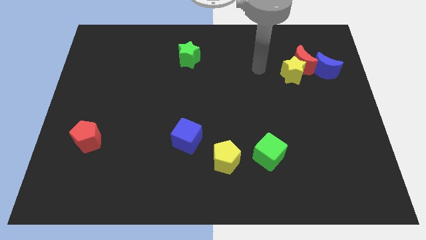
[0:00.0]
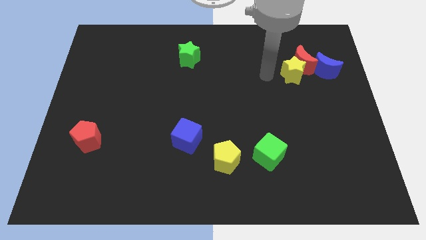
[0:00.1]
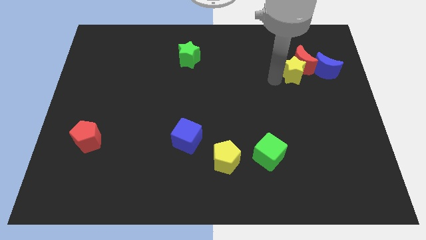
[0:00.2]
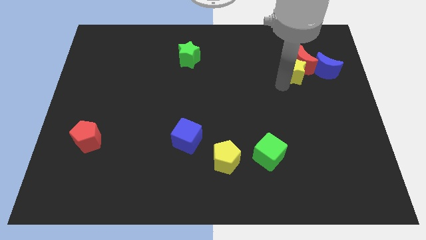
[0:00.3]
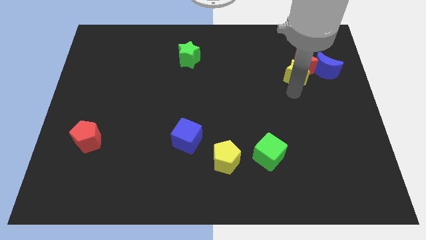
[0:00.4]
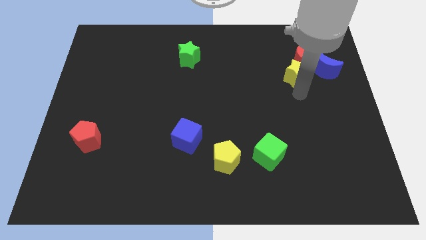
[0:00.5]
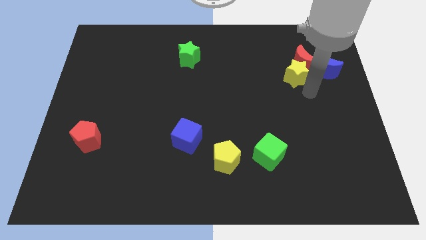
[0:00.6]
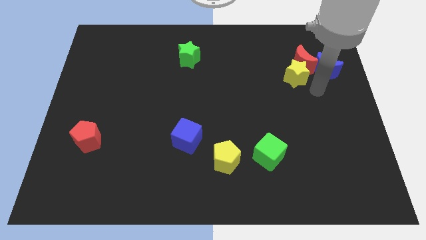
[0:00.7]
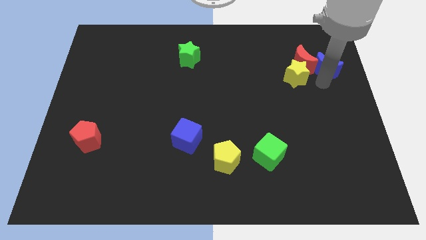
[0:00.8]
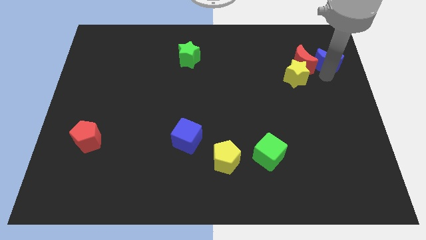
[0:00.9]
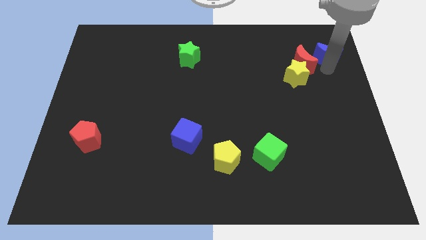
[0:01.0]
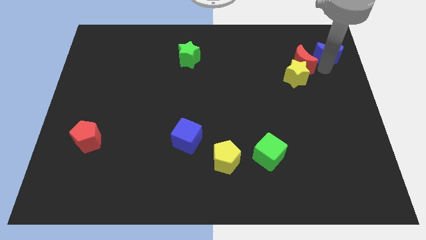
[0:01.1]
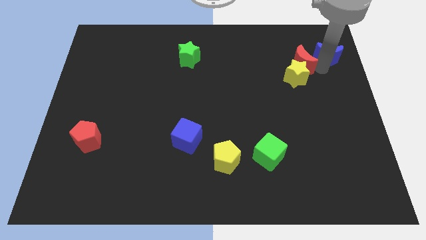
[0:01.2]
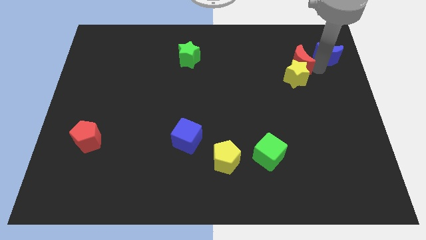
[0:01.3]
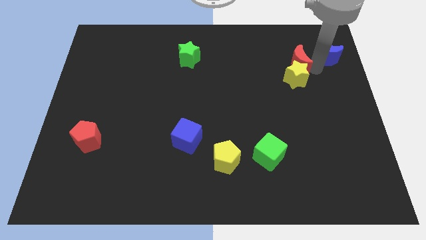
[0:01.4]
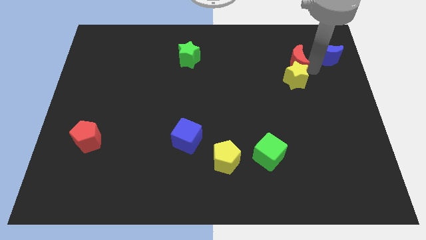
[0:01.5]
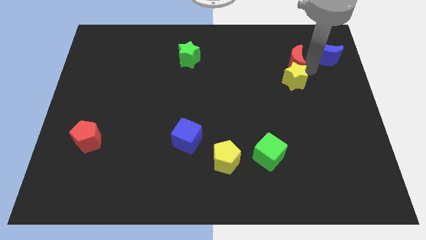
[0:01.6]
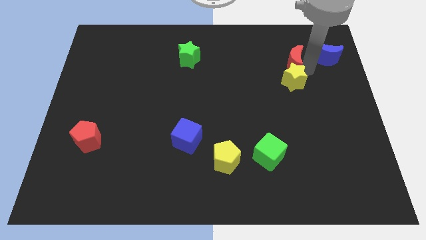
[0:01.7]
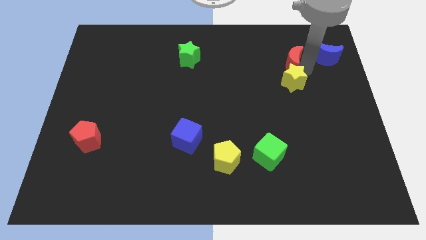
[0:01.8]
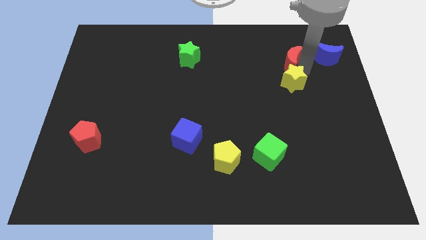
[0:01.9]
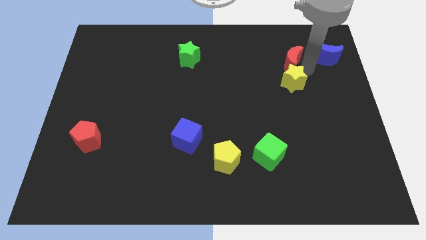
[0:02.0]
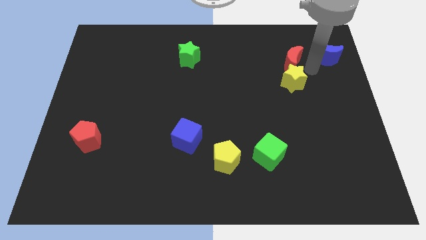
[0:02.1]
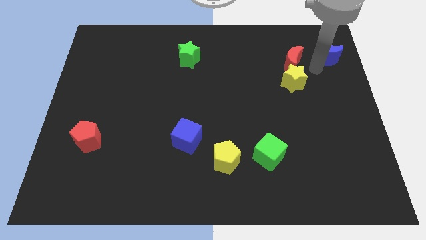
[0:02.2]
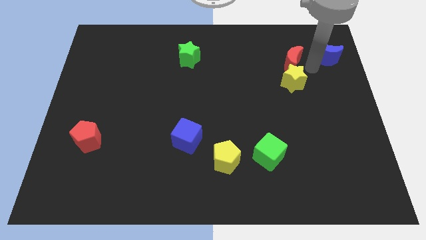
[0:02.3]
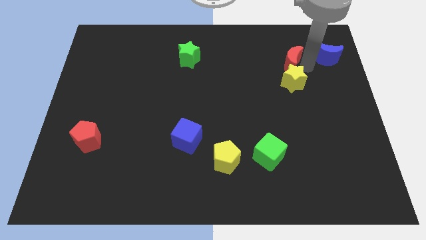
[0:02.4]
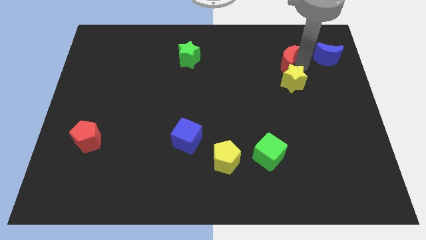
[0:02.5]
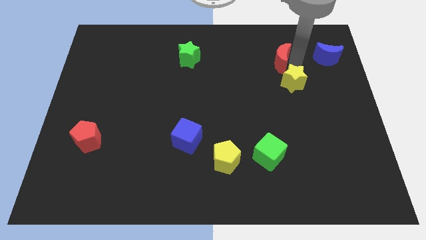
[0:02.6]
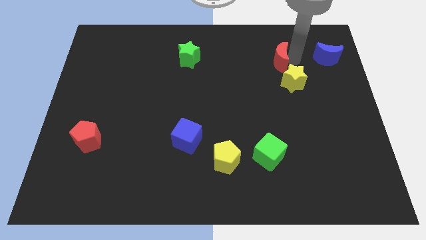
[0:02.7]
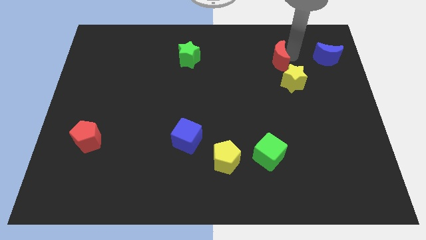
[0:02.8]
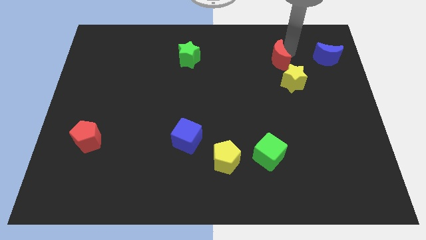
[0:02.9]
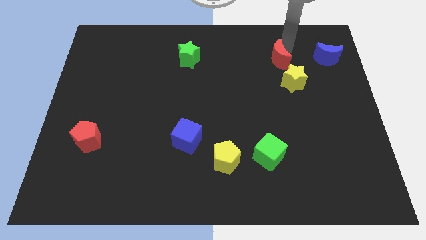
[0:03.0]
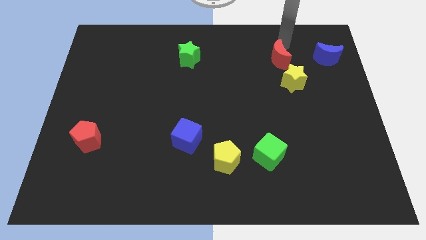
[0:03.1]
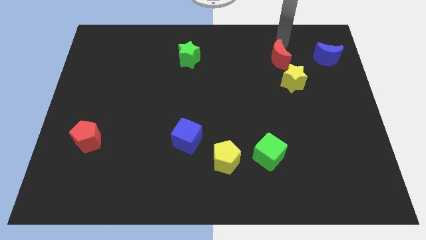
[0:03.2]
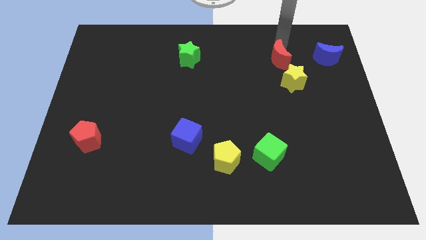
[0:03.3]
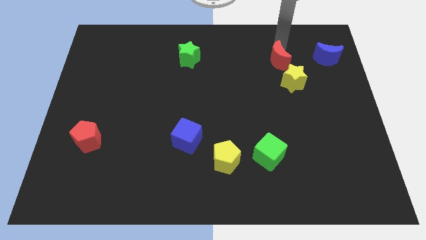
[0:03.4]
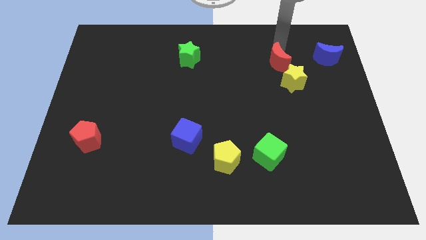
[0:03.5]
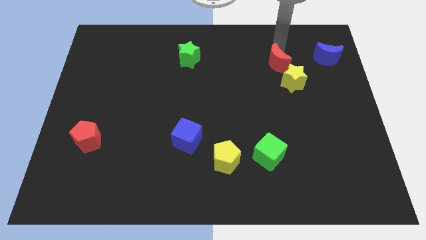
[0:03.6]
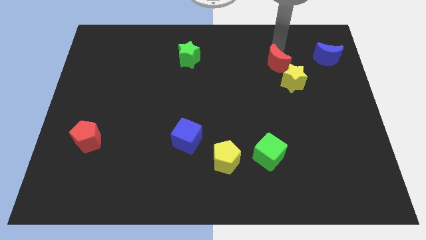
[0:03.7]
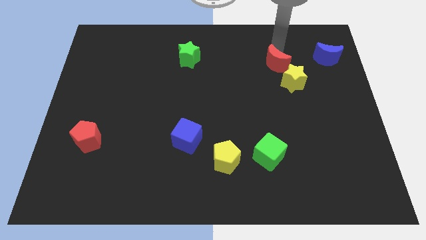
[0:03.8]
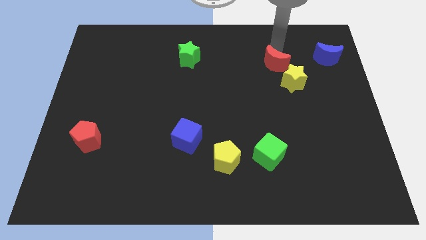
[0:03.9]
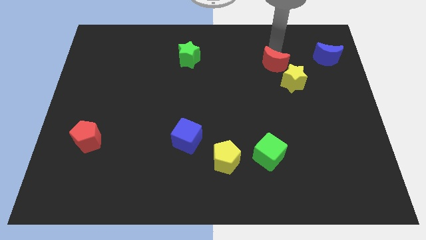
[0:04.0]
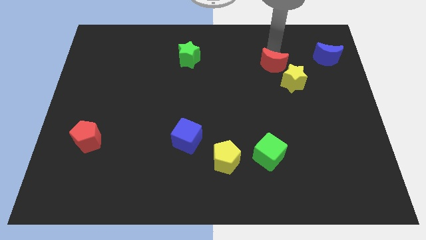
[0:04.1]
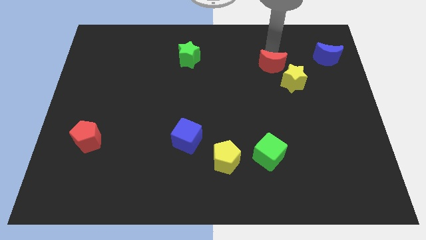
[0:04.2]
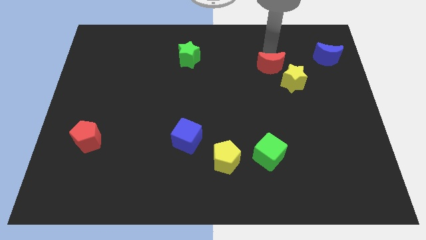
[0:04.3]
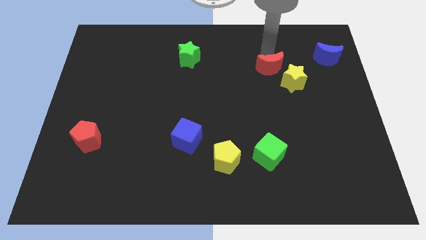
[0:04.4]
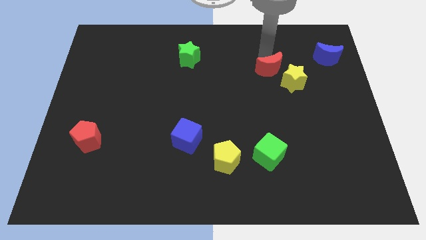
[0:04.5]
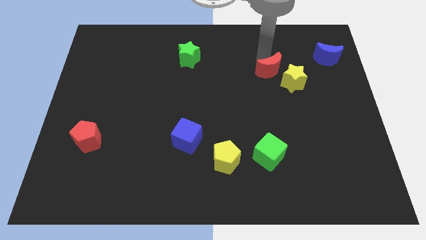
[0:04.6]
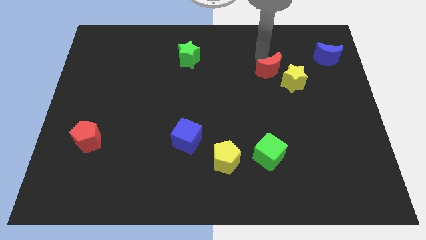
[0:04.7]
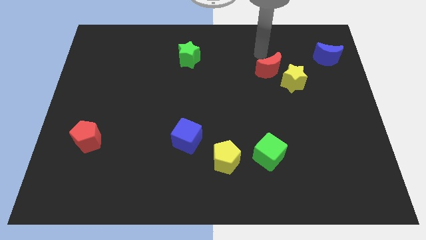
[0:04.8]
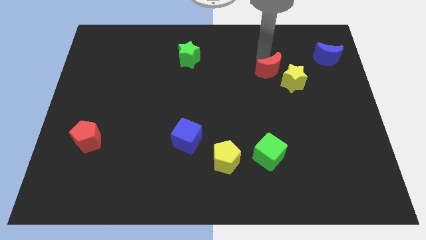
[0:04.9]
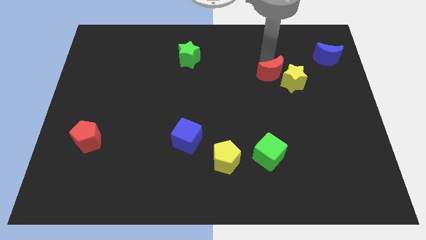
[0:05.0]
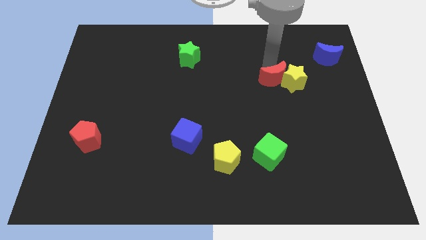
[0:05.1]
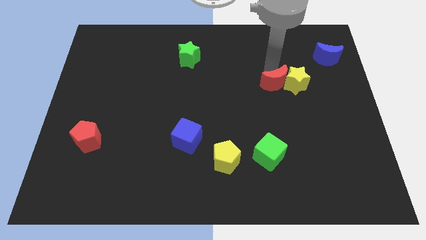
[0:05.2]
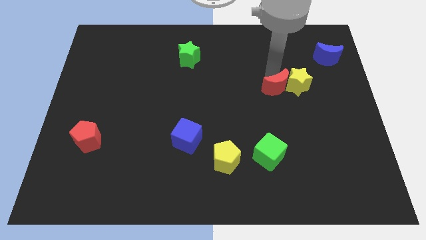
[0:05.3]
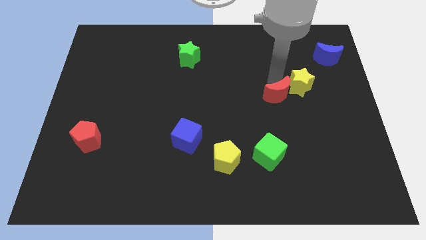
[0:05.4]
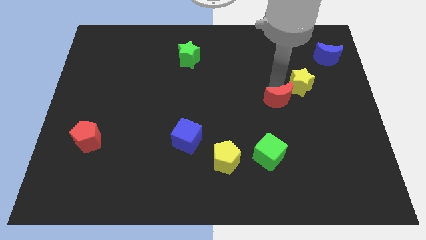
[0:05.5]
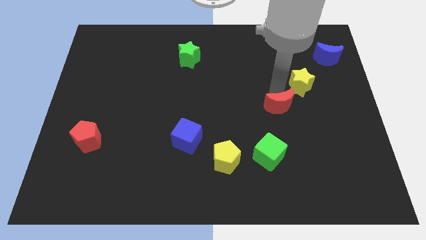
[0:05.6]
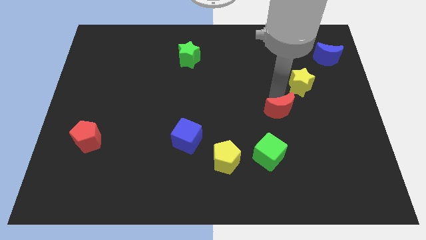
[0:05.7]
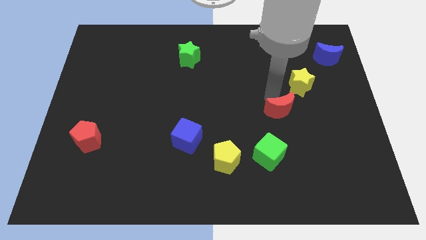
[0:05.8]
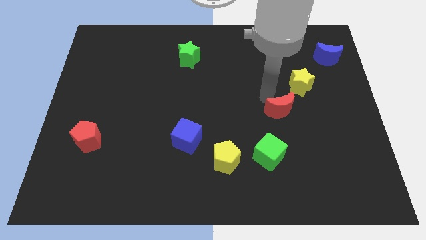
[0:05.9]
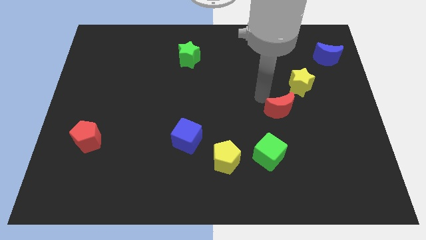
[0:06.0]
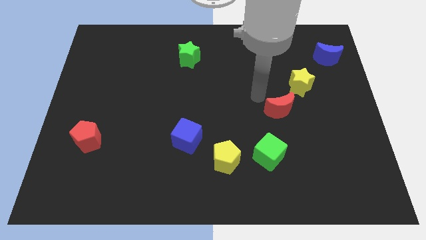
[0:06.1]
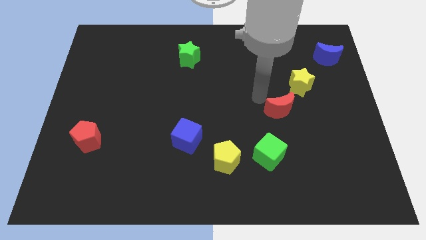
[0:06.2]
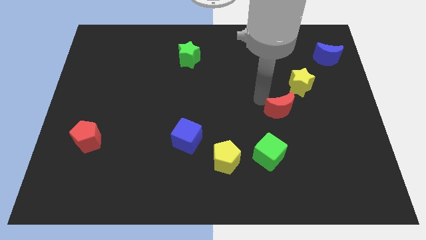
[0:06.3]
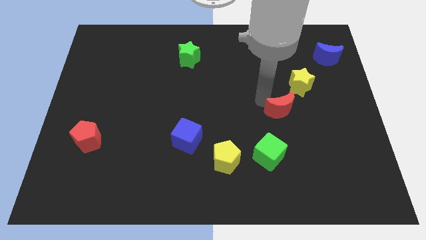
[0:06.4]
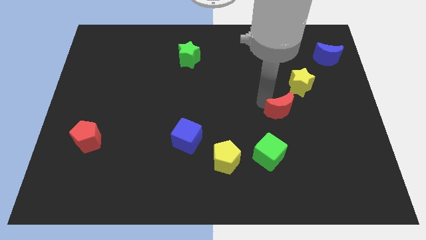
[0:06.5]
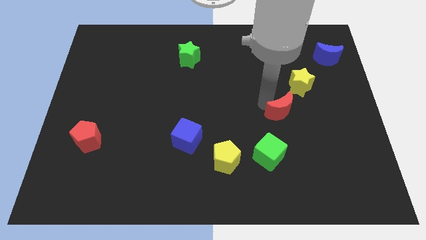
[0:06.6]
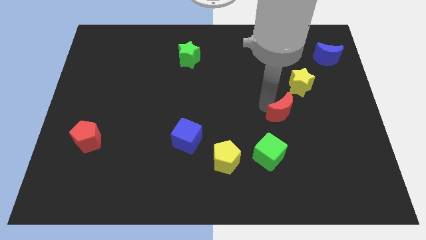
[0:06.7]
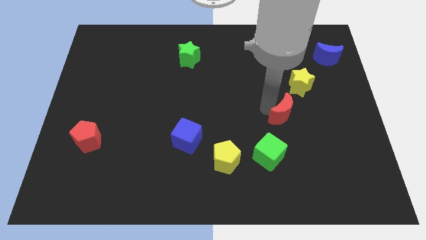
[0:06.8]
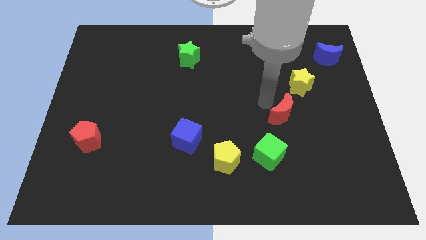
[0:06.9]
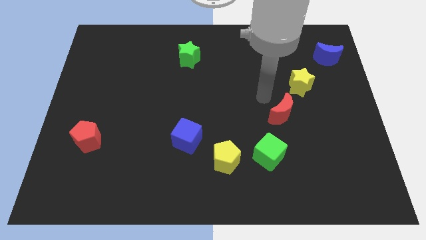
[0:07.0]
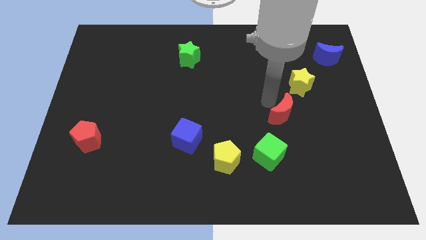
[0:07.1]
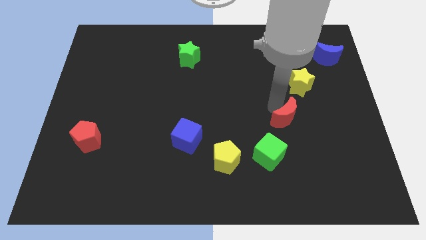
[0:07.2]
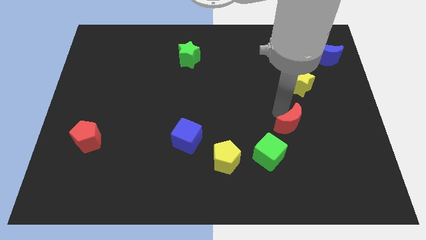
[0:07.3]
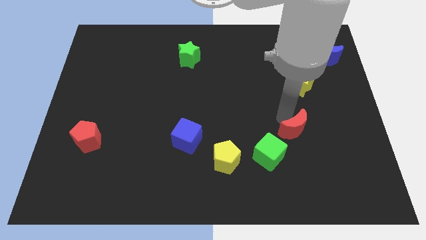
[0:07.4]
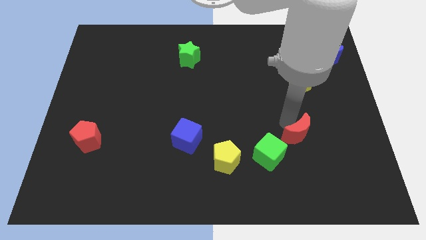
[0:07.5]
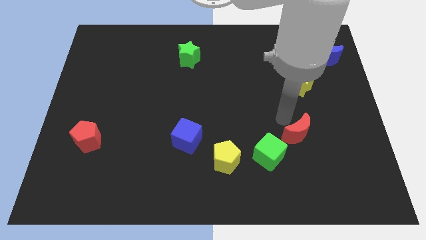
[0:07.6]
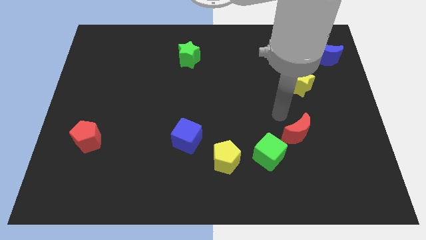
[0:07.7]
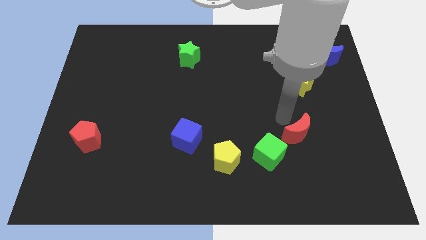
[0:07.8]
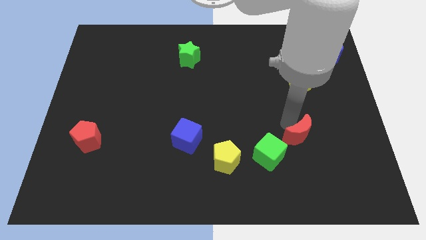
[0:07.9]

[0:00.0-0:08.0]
put the red moon just right of the green cube
